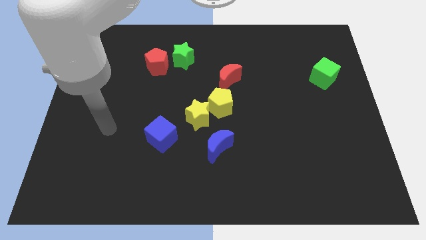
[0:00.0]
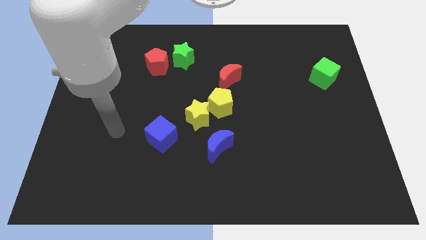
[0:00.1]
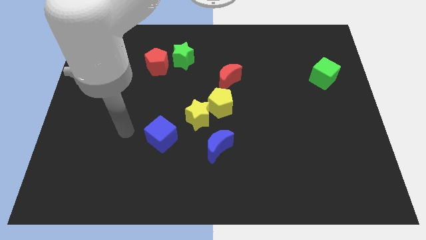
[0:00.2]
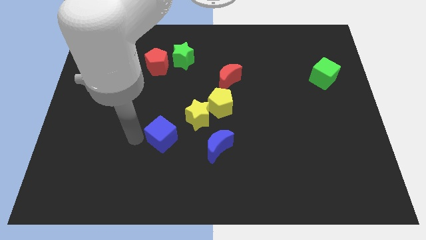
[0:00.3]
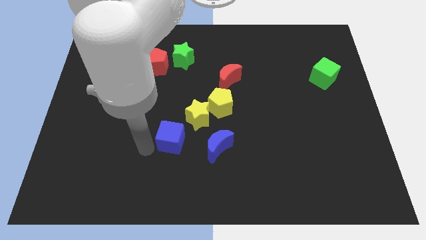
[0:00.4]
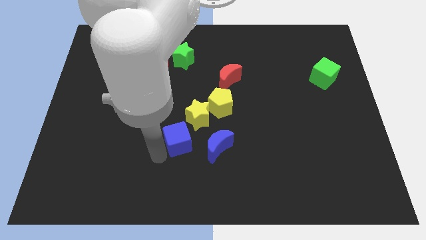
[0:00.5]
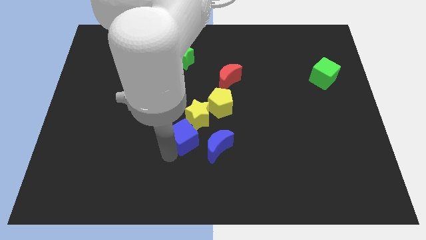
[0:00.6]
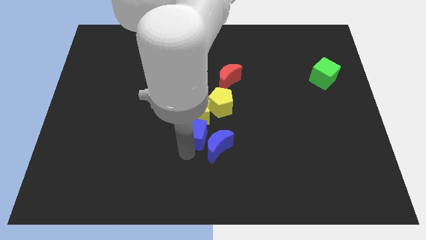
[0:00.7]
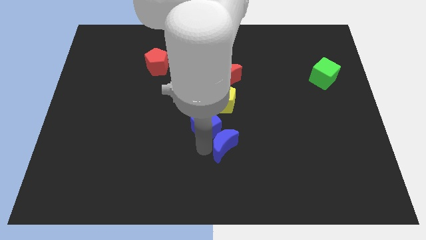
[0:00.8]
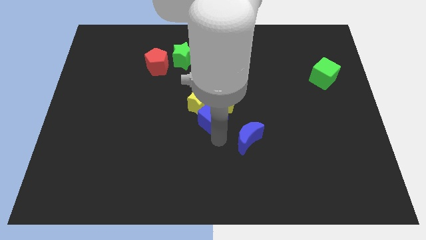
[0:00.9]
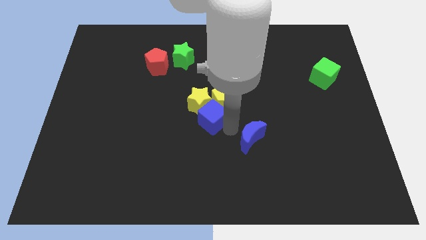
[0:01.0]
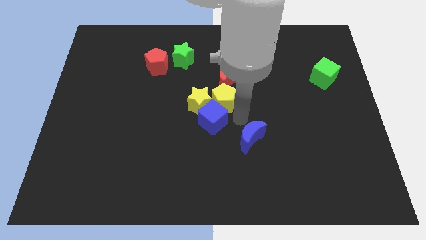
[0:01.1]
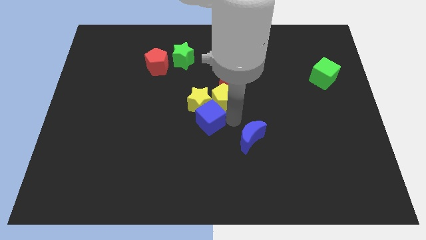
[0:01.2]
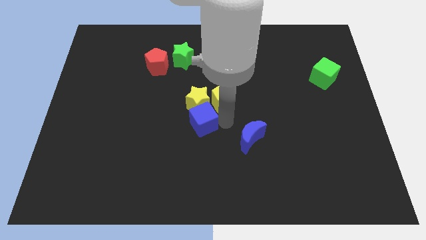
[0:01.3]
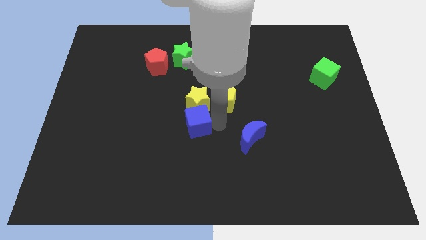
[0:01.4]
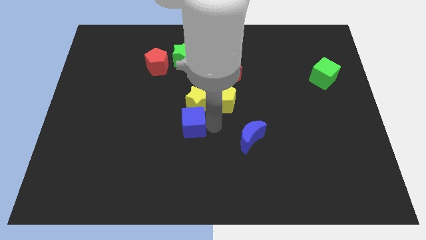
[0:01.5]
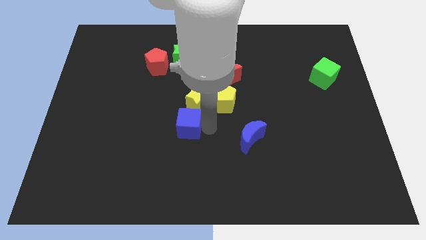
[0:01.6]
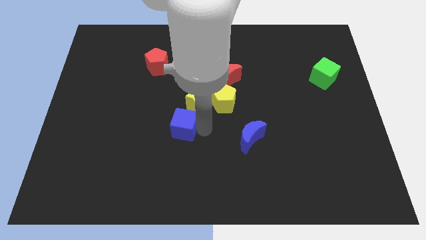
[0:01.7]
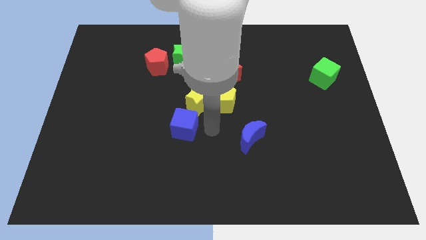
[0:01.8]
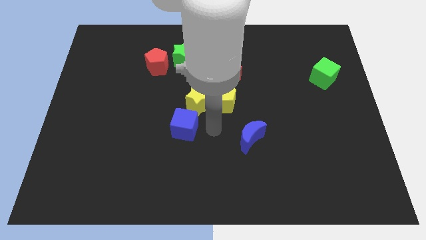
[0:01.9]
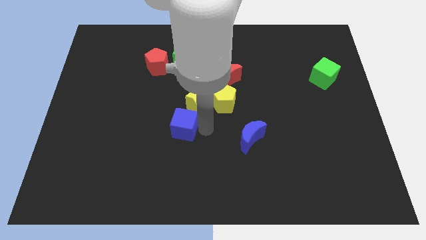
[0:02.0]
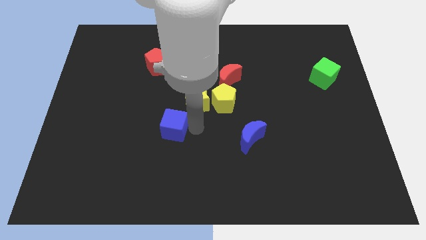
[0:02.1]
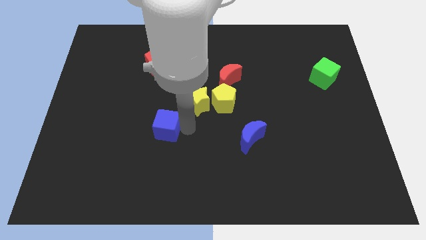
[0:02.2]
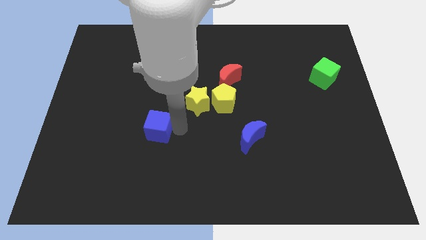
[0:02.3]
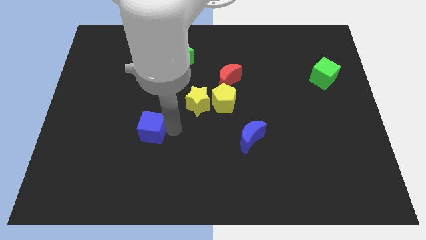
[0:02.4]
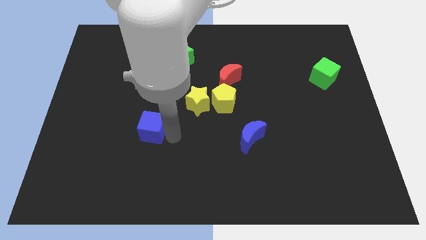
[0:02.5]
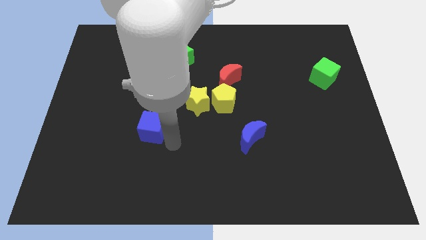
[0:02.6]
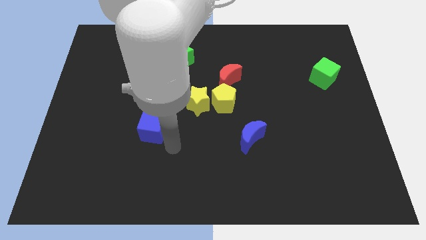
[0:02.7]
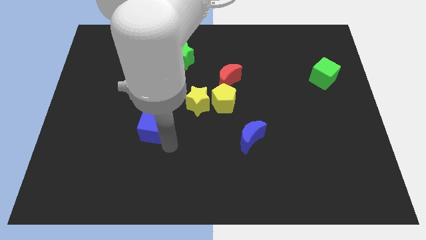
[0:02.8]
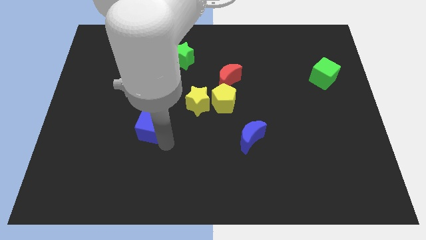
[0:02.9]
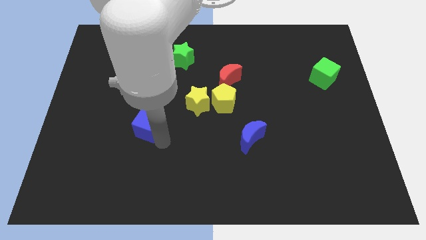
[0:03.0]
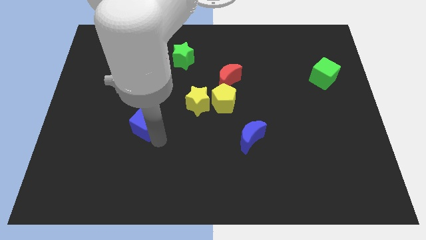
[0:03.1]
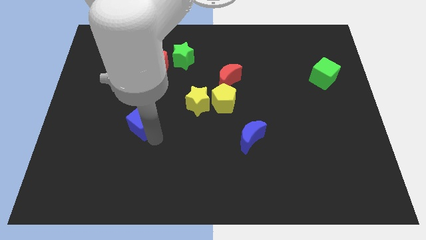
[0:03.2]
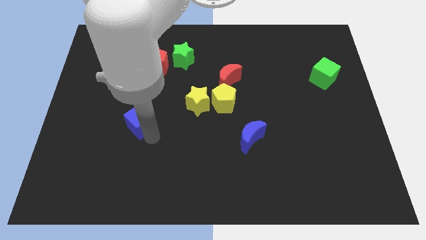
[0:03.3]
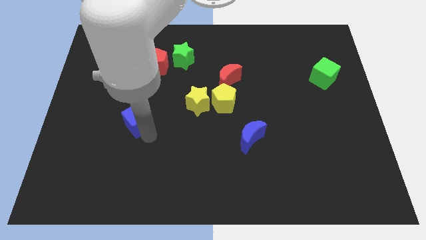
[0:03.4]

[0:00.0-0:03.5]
slightly push the blue cube diagonally upwards and to the left

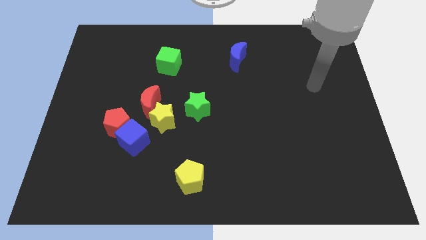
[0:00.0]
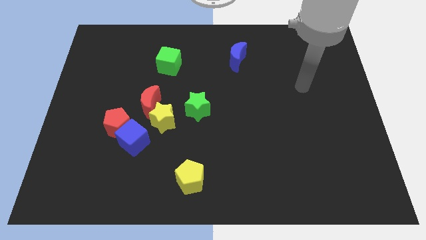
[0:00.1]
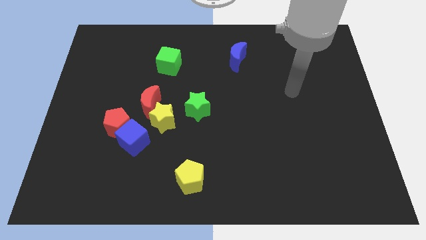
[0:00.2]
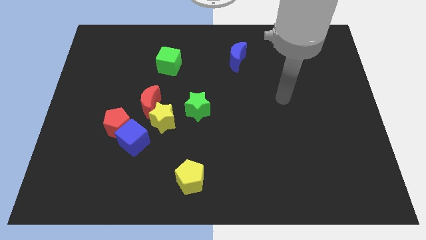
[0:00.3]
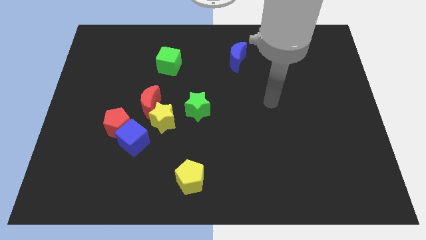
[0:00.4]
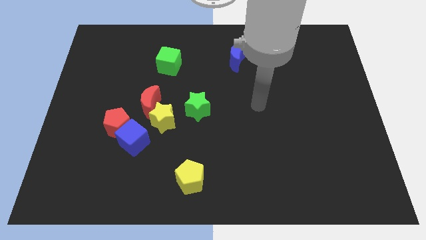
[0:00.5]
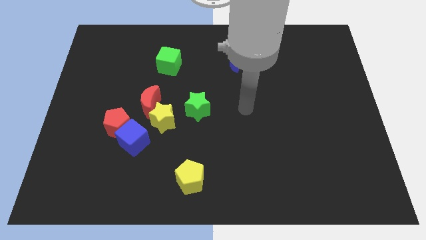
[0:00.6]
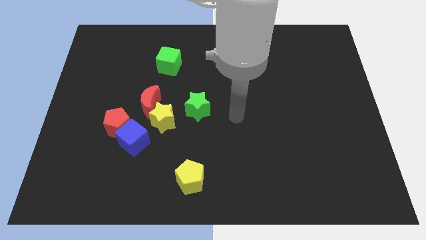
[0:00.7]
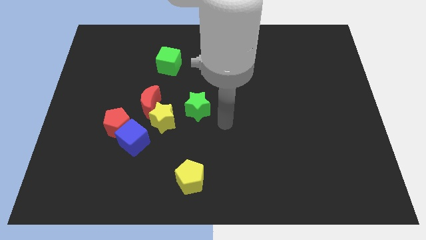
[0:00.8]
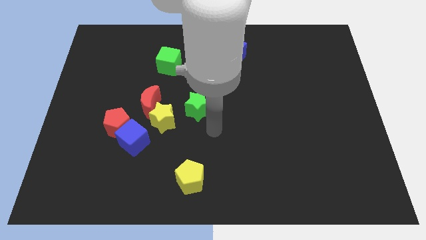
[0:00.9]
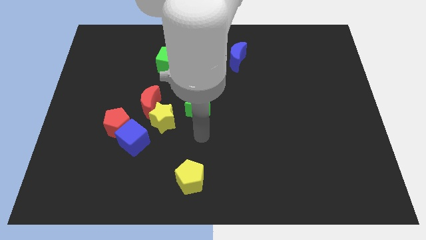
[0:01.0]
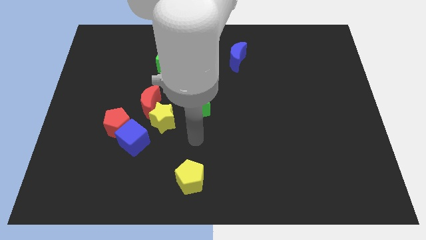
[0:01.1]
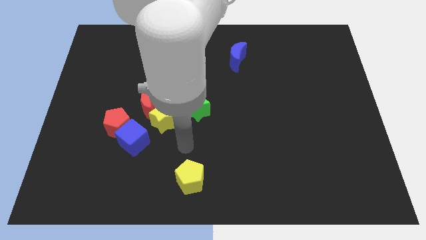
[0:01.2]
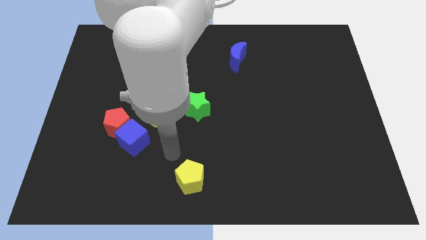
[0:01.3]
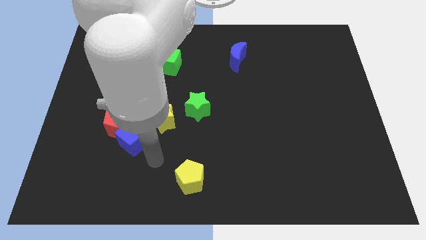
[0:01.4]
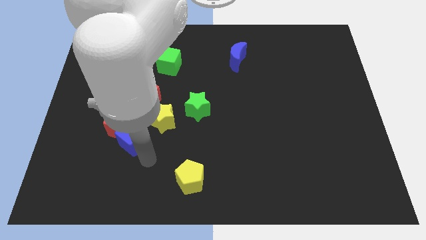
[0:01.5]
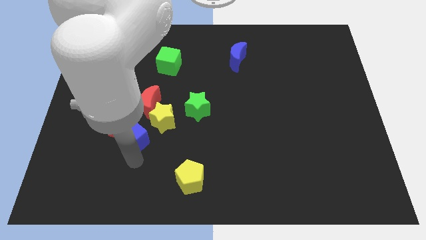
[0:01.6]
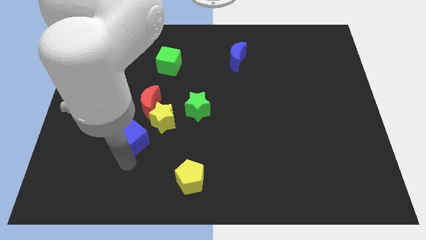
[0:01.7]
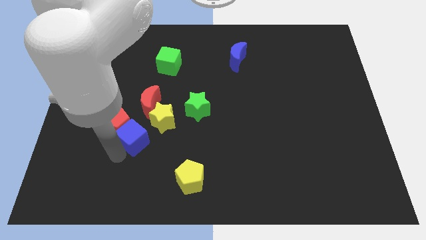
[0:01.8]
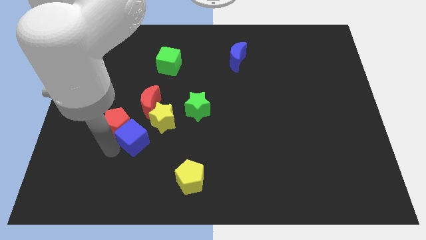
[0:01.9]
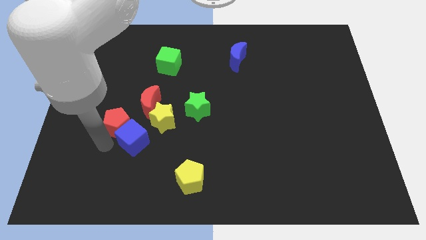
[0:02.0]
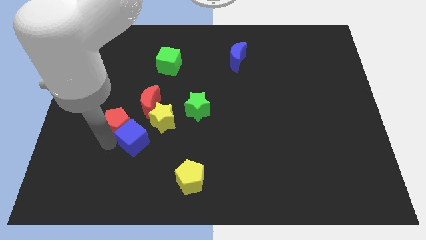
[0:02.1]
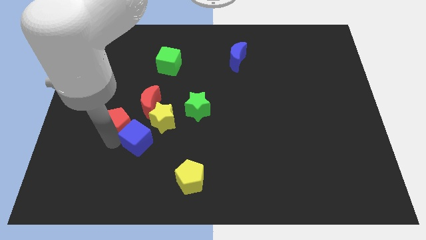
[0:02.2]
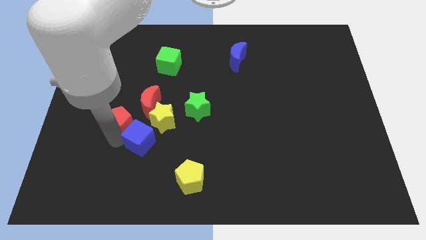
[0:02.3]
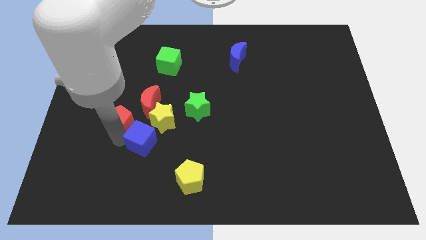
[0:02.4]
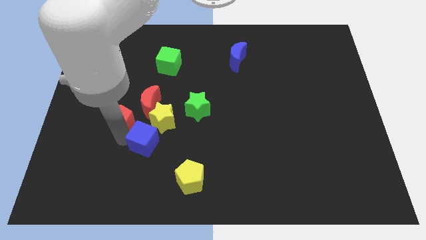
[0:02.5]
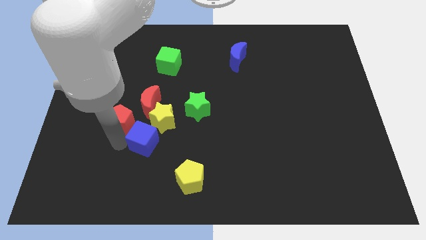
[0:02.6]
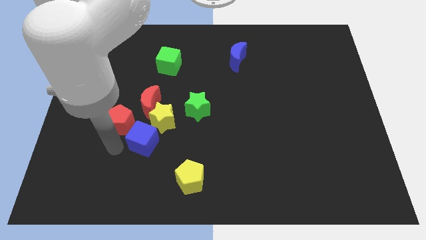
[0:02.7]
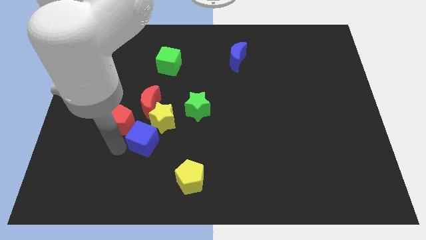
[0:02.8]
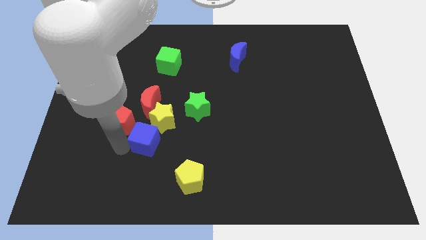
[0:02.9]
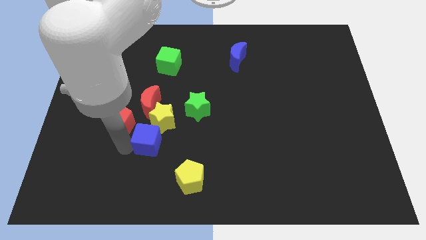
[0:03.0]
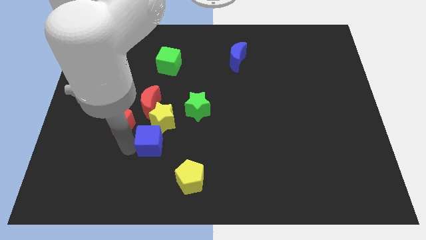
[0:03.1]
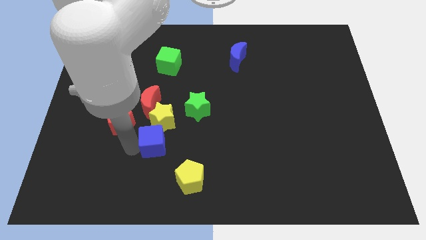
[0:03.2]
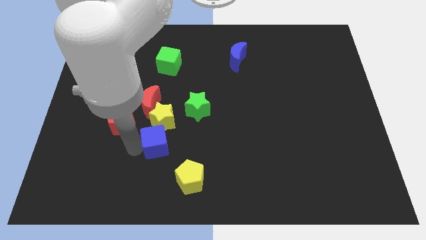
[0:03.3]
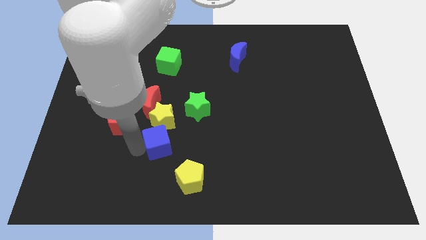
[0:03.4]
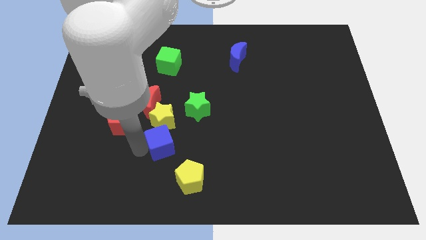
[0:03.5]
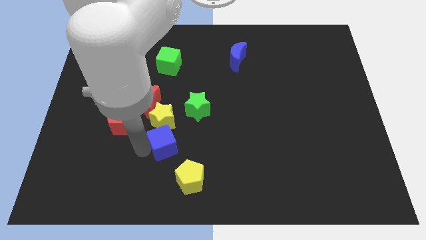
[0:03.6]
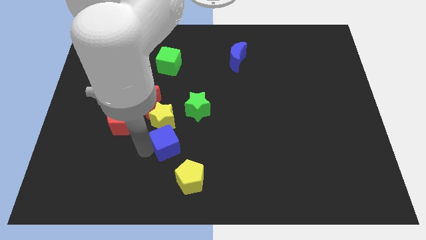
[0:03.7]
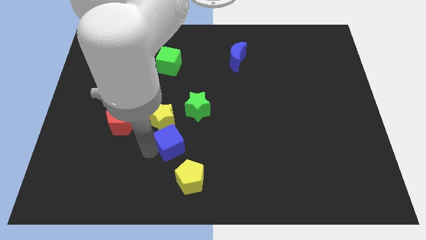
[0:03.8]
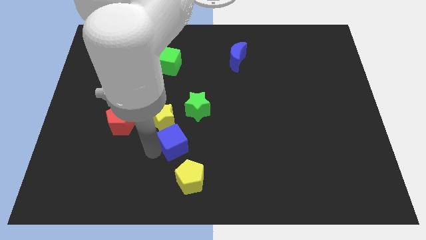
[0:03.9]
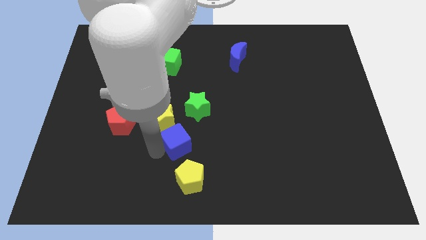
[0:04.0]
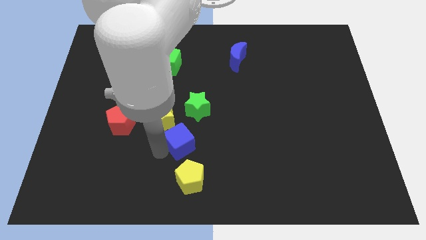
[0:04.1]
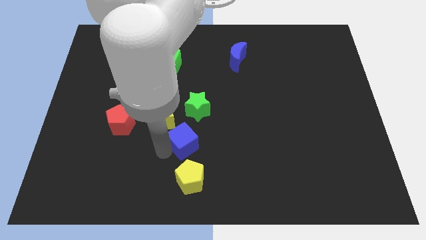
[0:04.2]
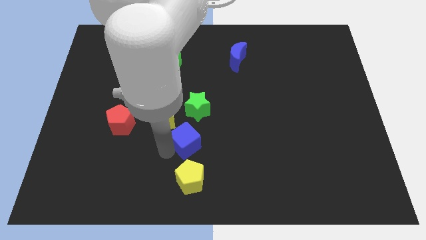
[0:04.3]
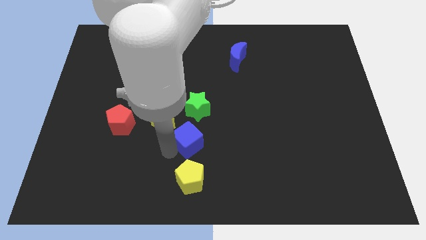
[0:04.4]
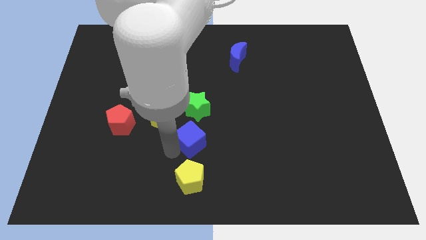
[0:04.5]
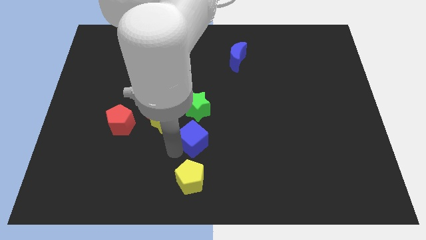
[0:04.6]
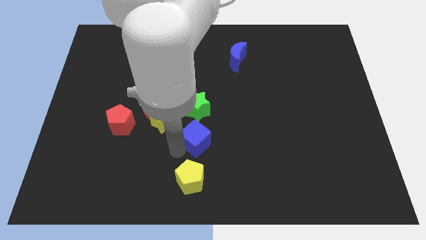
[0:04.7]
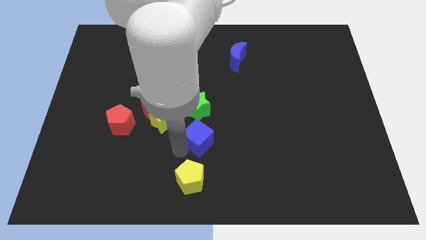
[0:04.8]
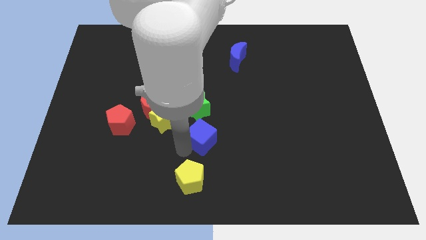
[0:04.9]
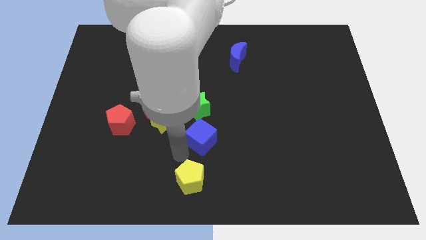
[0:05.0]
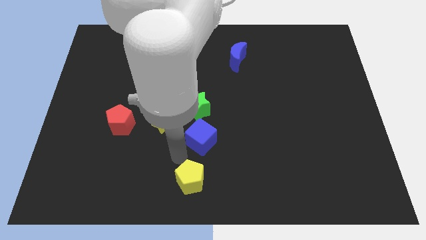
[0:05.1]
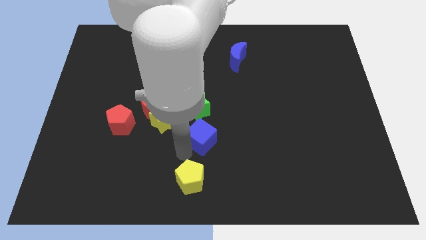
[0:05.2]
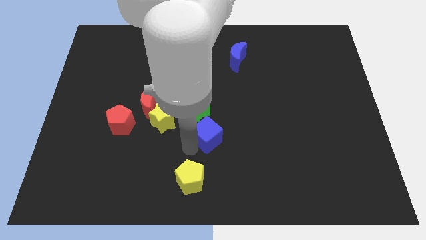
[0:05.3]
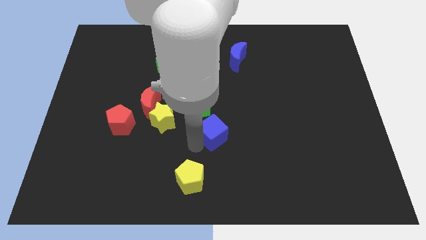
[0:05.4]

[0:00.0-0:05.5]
push the blue cube up and to the right a bit
